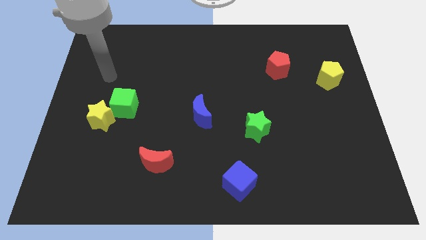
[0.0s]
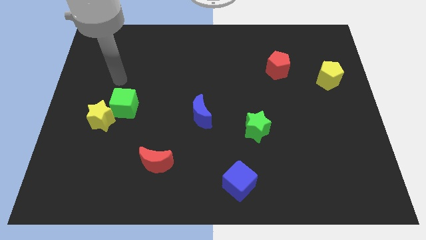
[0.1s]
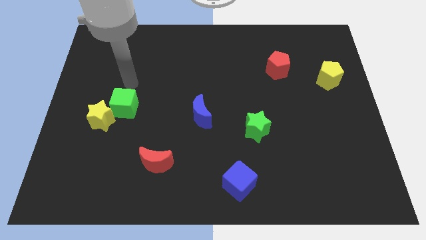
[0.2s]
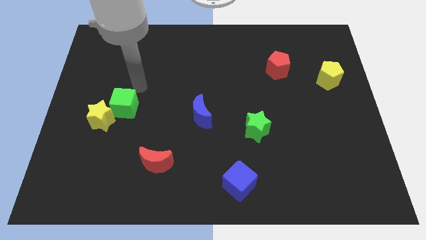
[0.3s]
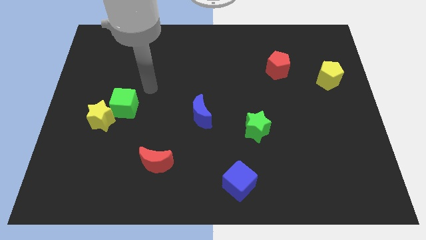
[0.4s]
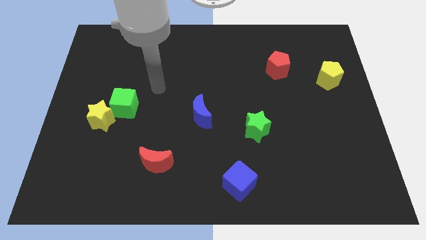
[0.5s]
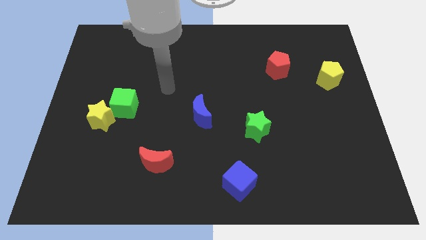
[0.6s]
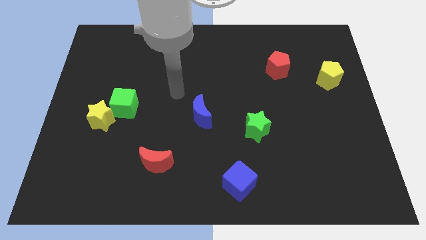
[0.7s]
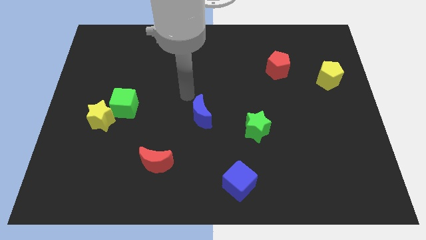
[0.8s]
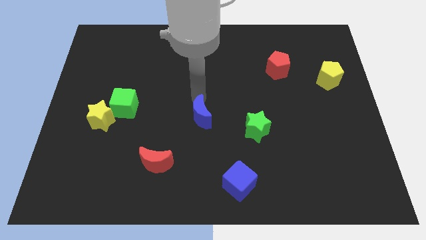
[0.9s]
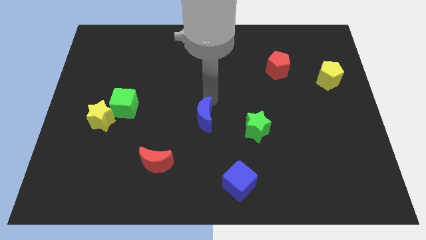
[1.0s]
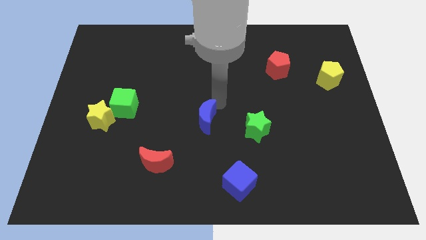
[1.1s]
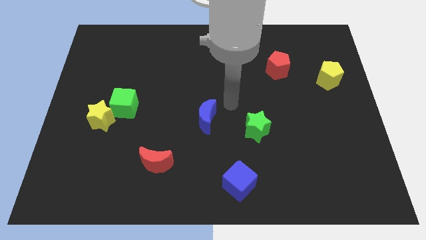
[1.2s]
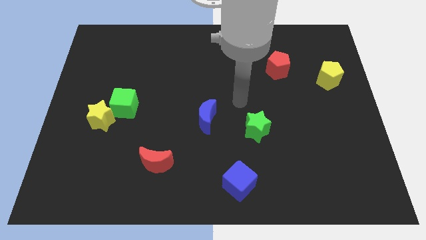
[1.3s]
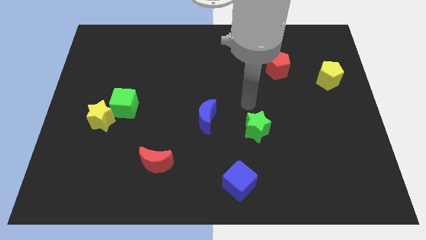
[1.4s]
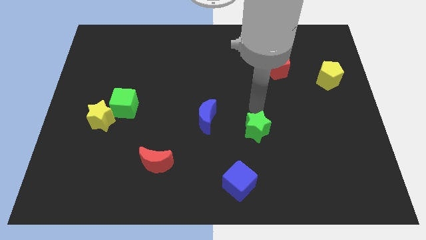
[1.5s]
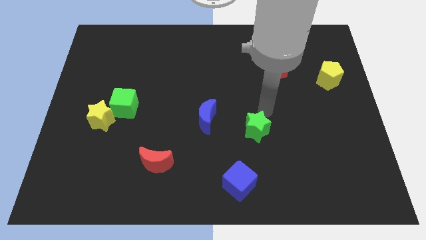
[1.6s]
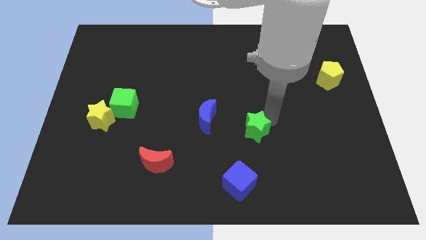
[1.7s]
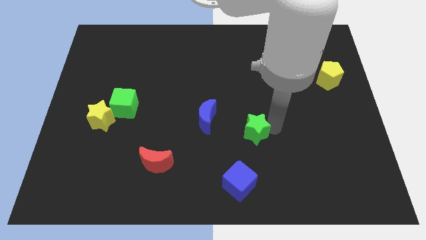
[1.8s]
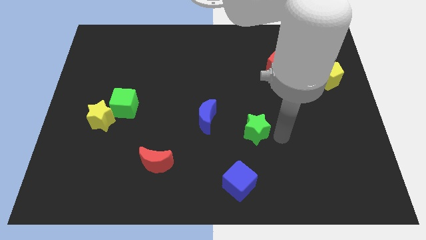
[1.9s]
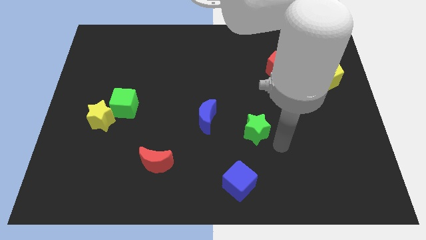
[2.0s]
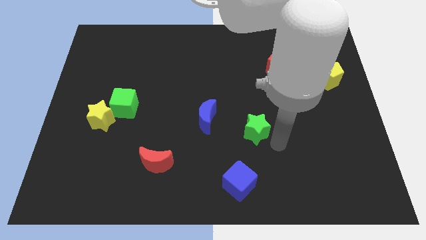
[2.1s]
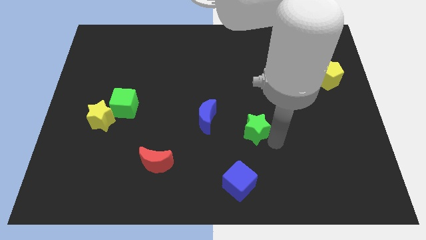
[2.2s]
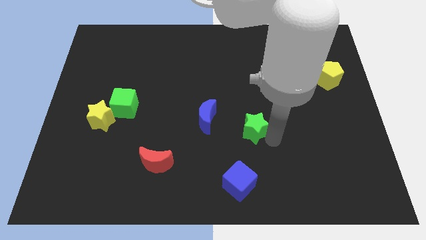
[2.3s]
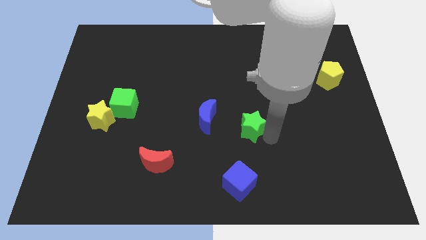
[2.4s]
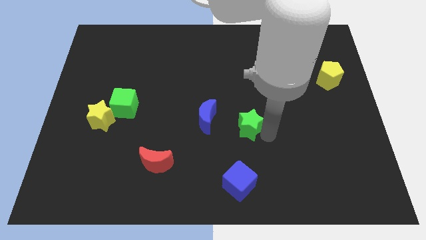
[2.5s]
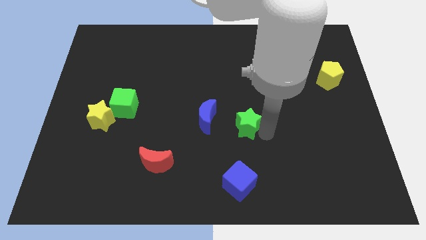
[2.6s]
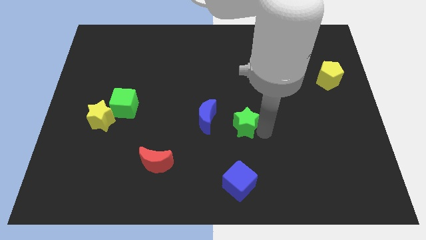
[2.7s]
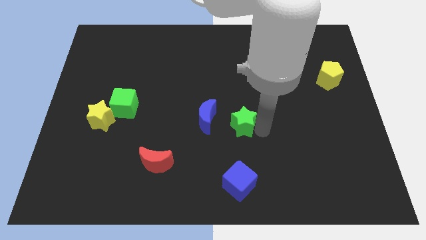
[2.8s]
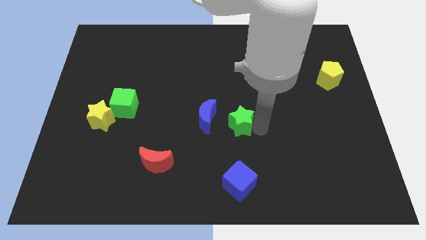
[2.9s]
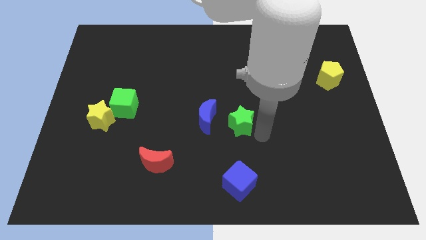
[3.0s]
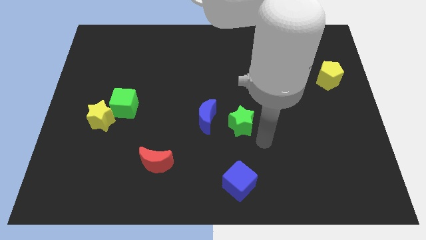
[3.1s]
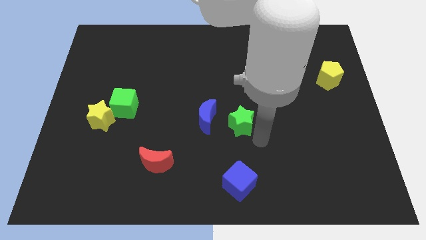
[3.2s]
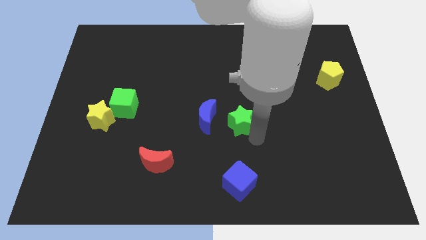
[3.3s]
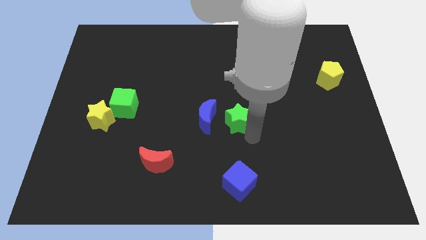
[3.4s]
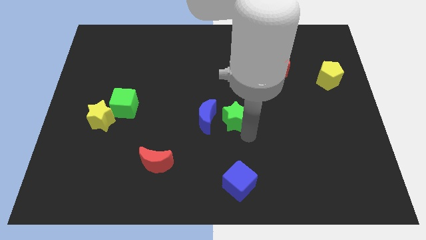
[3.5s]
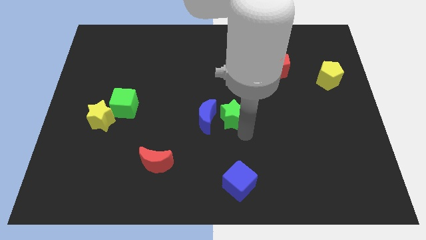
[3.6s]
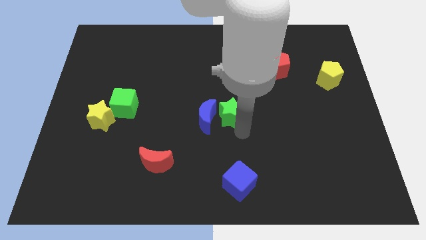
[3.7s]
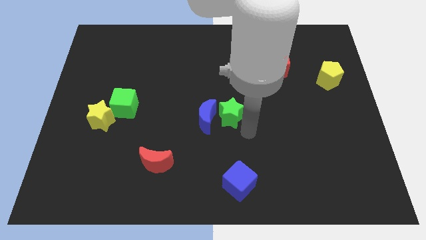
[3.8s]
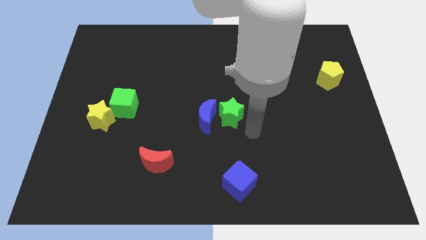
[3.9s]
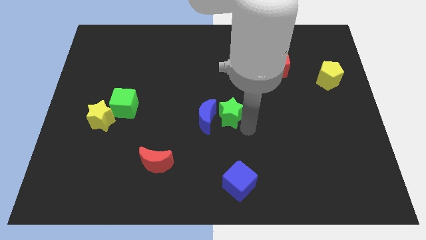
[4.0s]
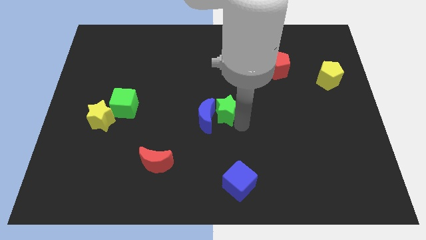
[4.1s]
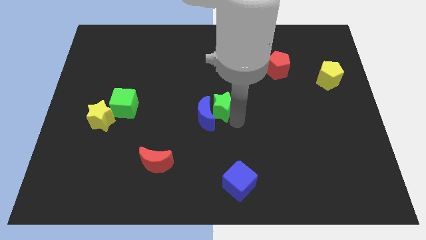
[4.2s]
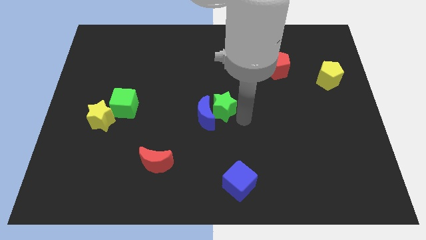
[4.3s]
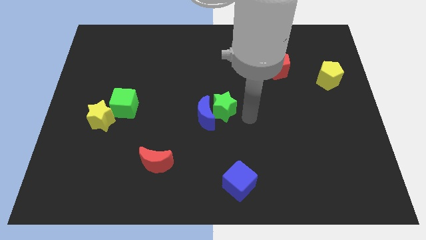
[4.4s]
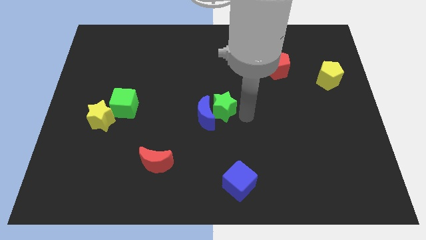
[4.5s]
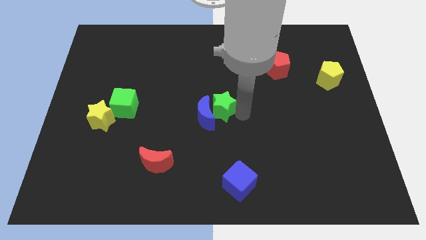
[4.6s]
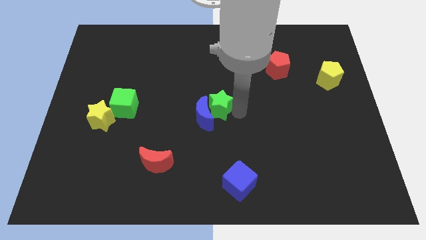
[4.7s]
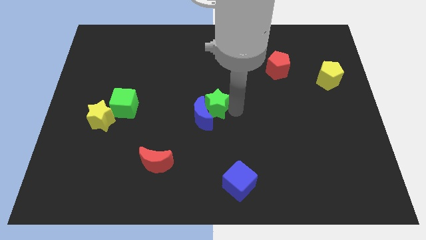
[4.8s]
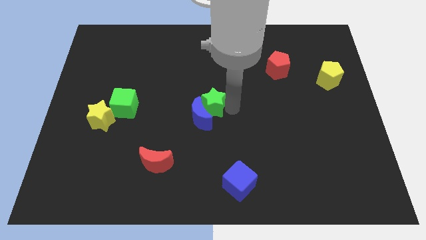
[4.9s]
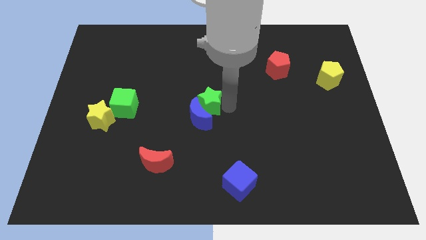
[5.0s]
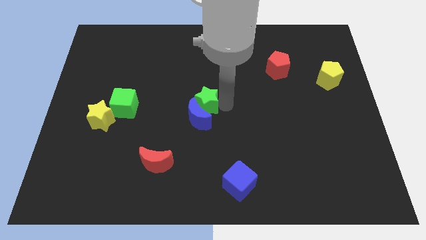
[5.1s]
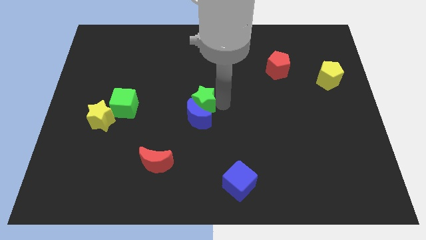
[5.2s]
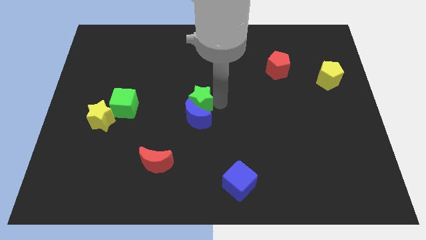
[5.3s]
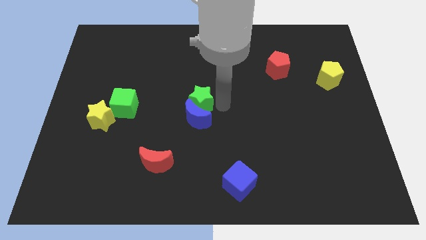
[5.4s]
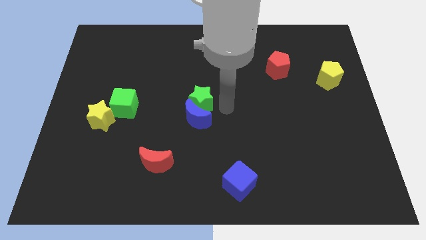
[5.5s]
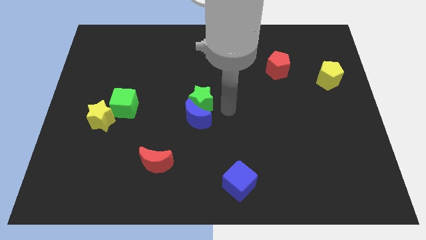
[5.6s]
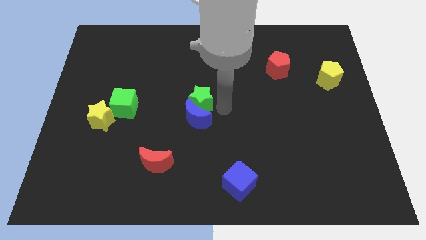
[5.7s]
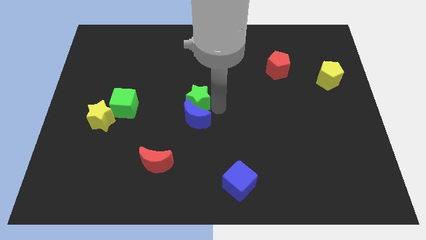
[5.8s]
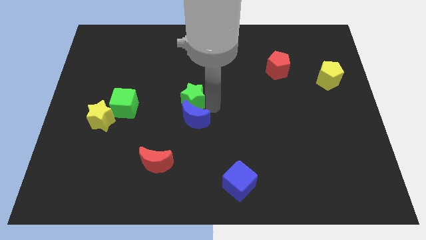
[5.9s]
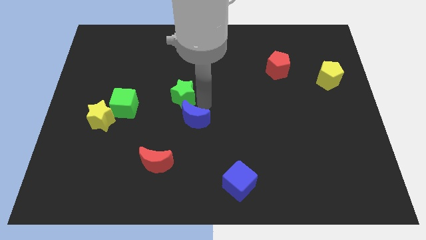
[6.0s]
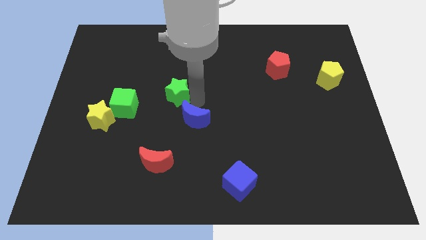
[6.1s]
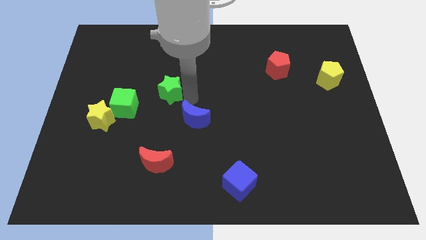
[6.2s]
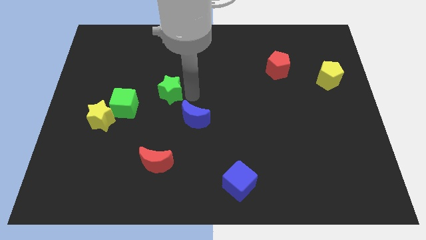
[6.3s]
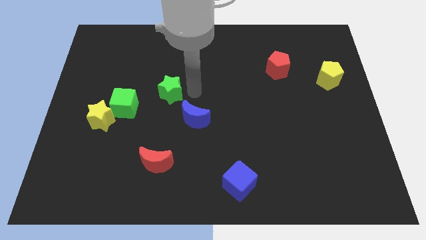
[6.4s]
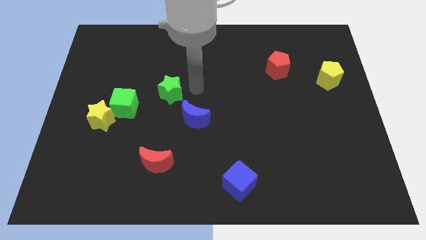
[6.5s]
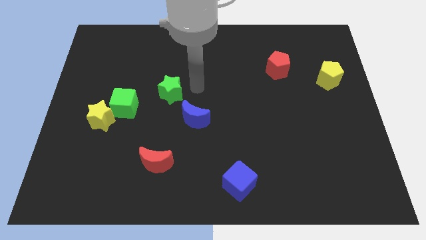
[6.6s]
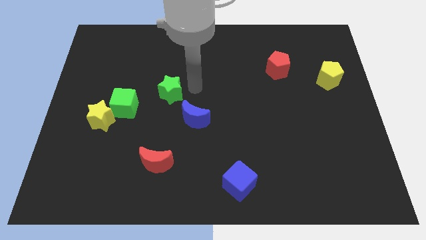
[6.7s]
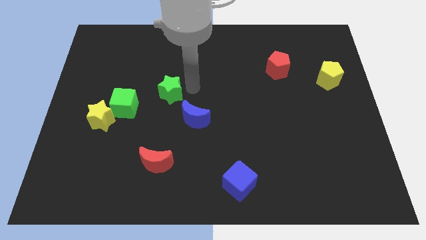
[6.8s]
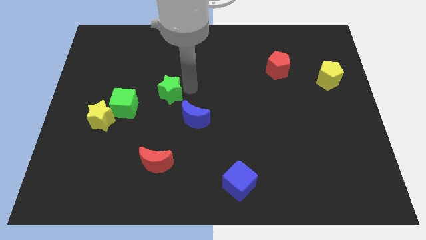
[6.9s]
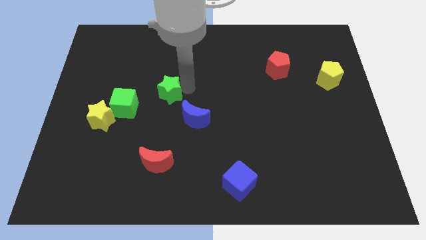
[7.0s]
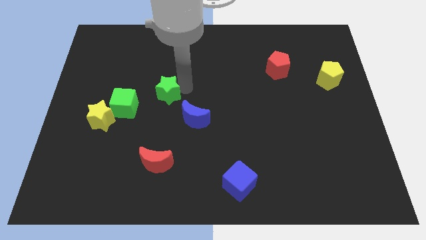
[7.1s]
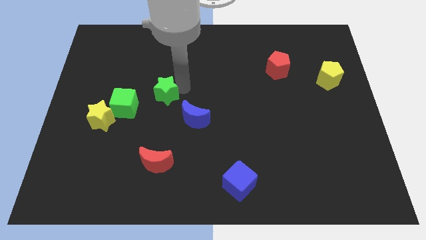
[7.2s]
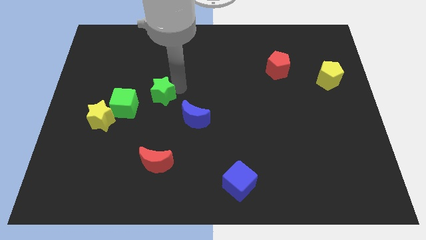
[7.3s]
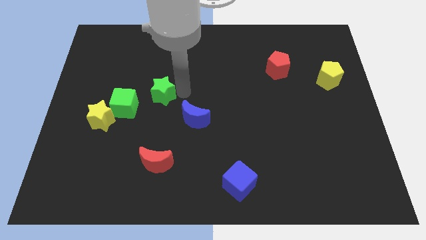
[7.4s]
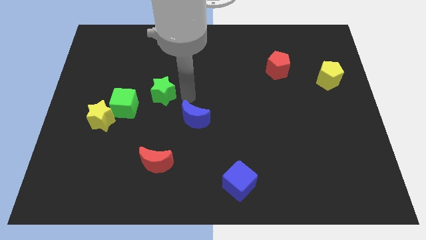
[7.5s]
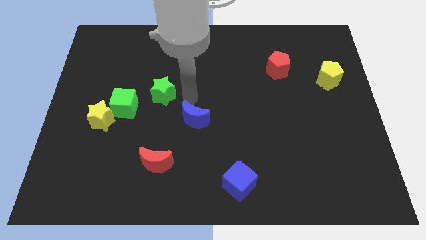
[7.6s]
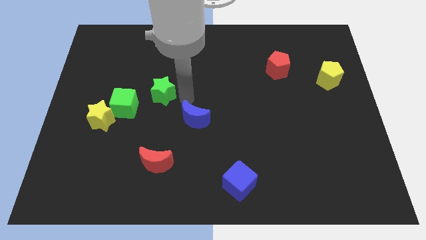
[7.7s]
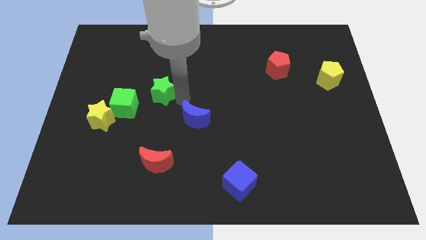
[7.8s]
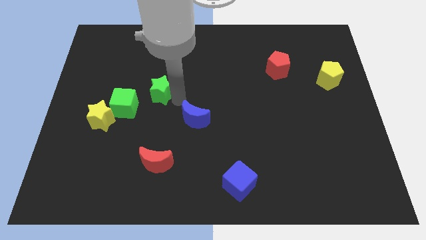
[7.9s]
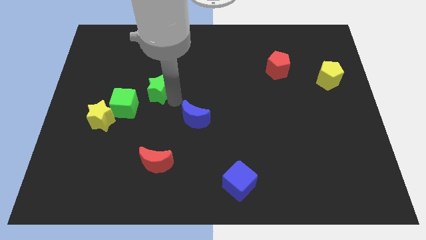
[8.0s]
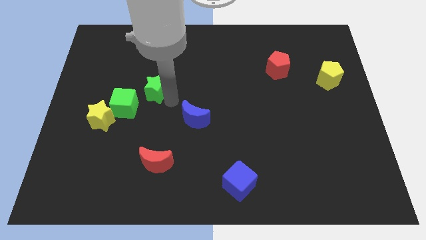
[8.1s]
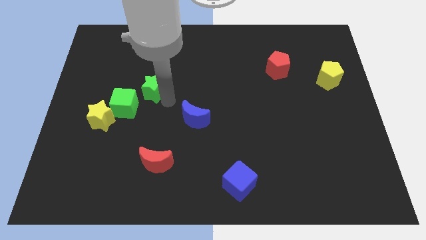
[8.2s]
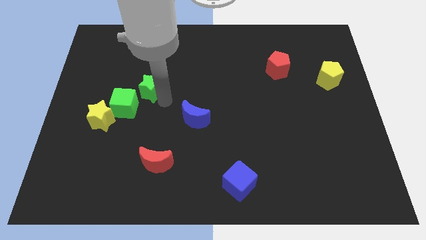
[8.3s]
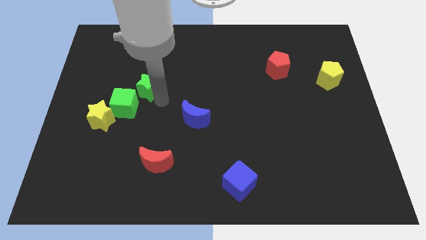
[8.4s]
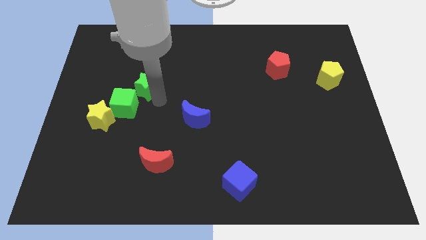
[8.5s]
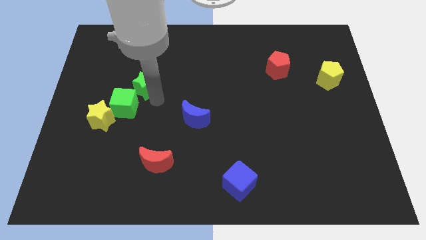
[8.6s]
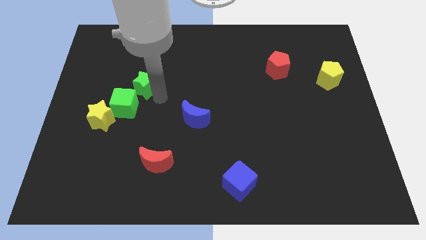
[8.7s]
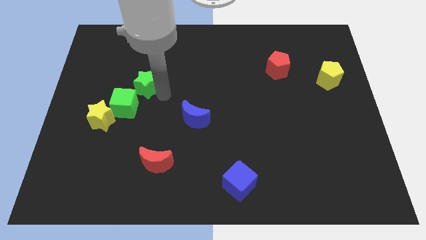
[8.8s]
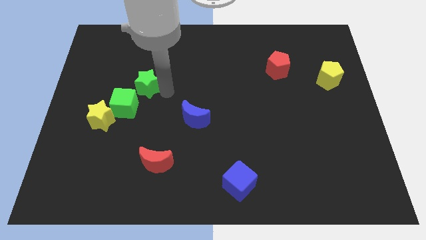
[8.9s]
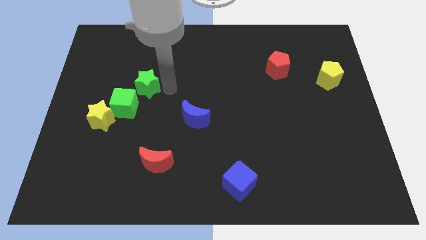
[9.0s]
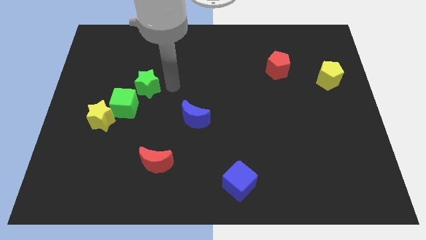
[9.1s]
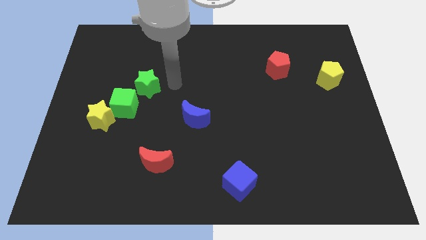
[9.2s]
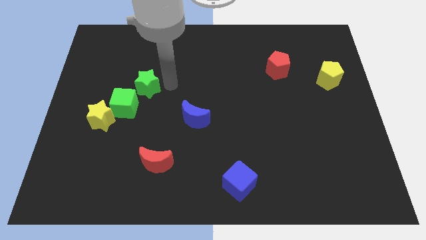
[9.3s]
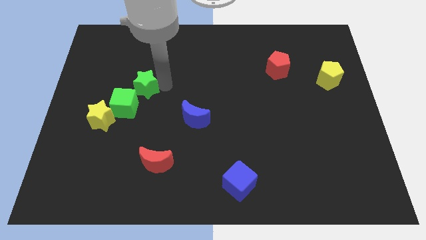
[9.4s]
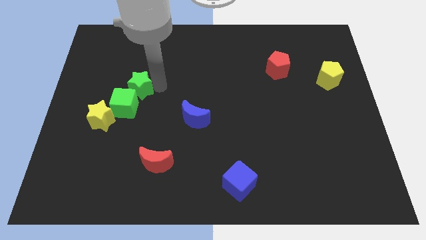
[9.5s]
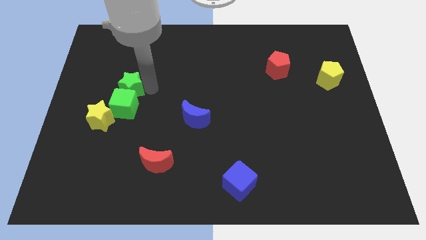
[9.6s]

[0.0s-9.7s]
push the green star diagonally up and to the left of the green cube
